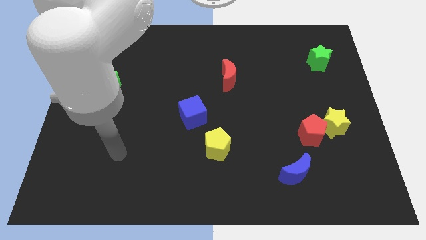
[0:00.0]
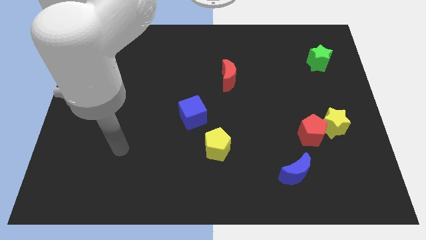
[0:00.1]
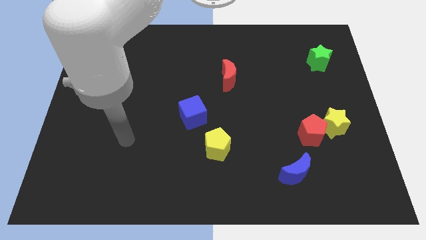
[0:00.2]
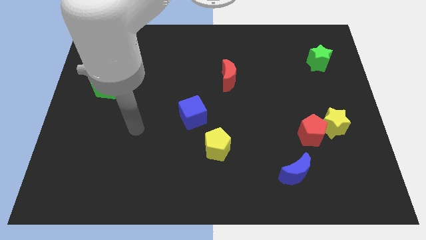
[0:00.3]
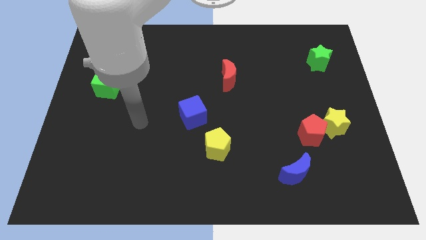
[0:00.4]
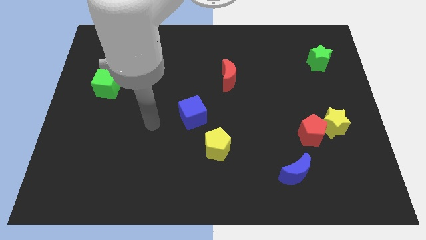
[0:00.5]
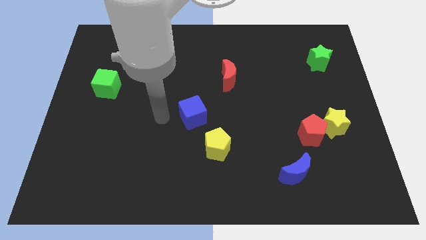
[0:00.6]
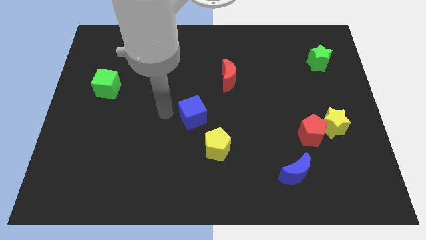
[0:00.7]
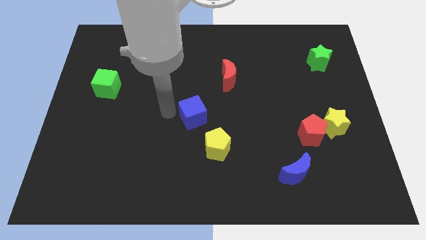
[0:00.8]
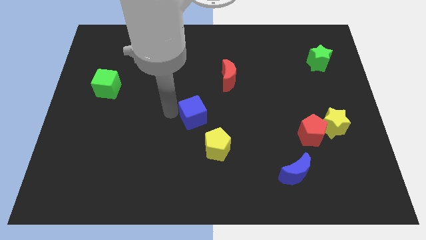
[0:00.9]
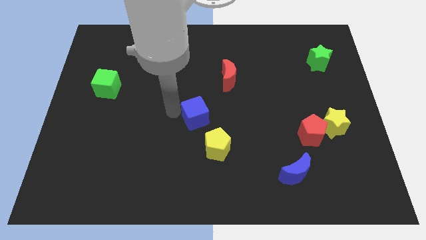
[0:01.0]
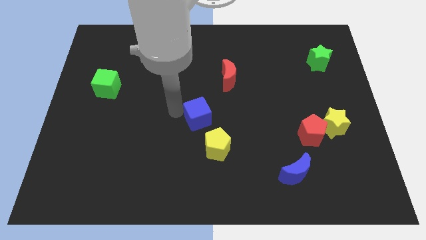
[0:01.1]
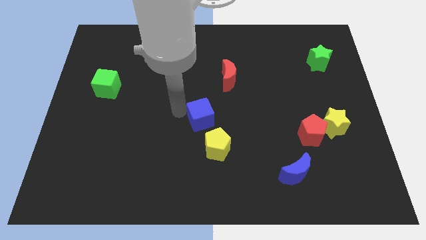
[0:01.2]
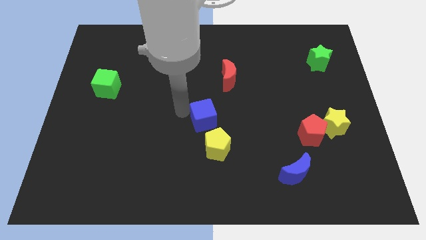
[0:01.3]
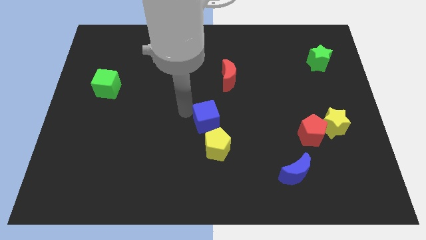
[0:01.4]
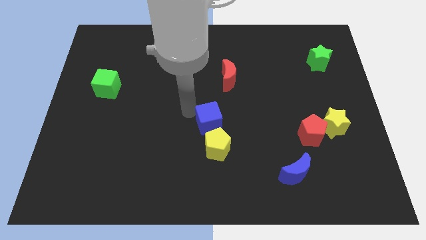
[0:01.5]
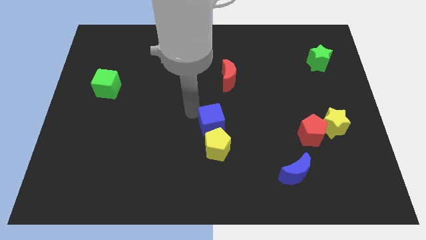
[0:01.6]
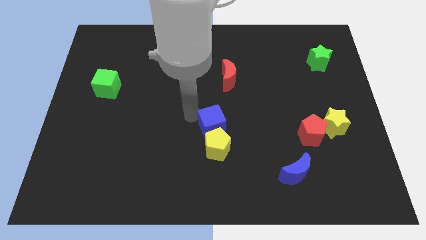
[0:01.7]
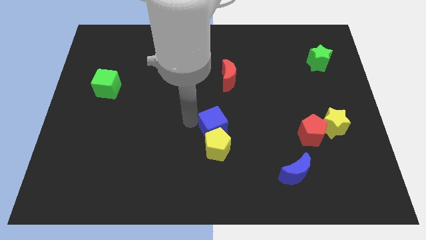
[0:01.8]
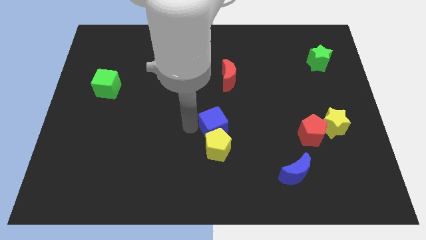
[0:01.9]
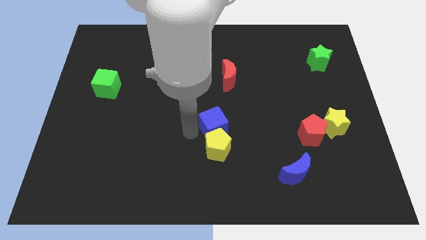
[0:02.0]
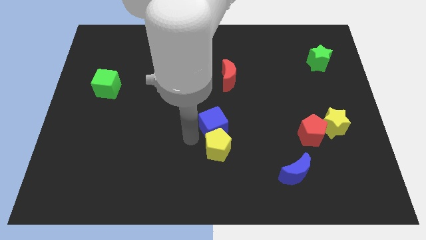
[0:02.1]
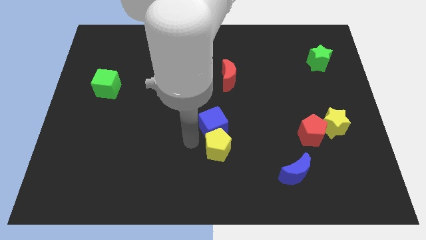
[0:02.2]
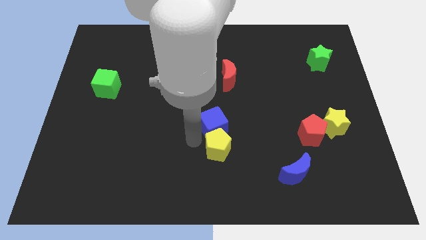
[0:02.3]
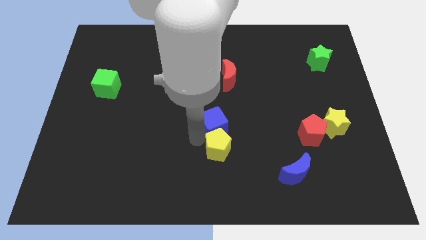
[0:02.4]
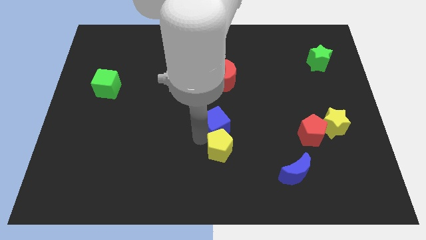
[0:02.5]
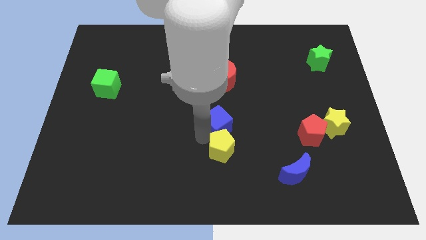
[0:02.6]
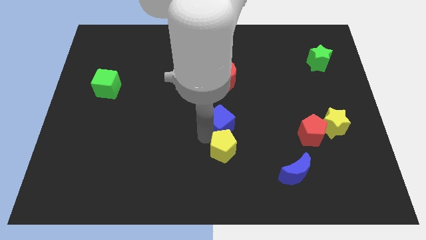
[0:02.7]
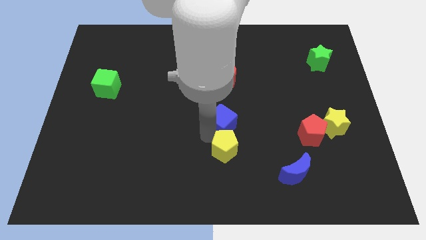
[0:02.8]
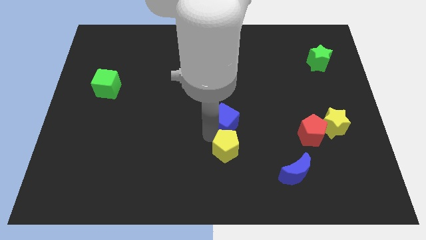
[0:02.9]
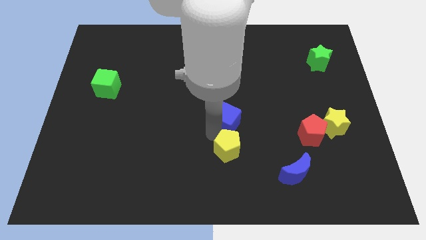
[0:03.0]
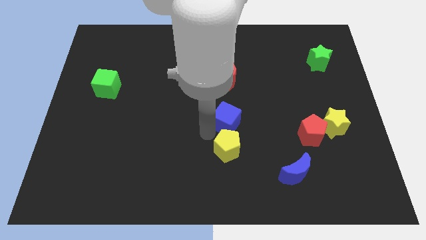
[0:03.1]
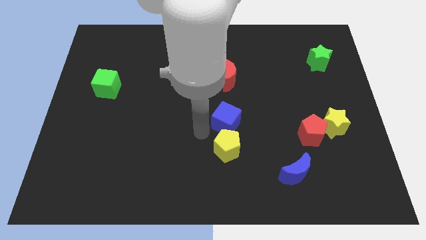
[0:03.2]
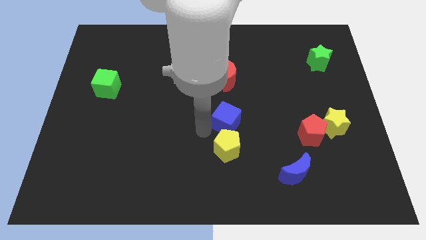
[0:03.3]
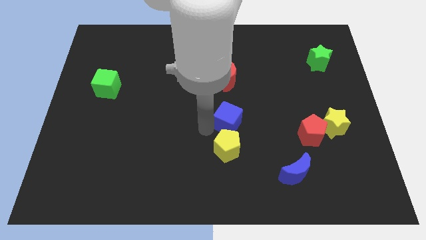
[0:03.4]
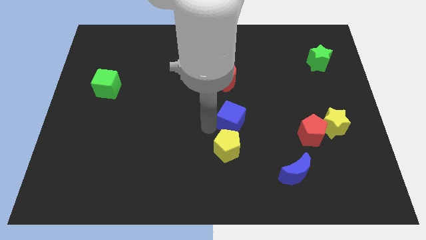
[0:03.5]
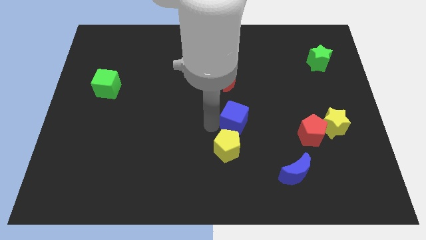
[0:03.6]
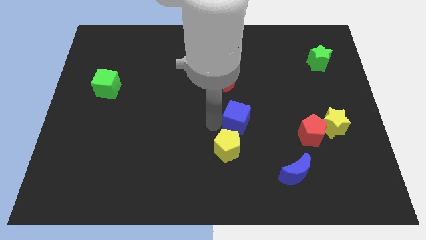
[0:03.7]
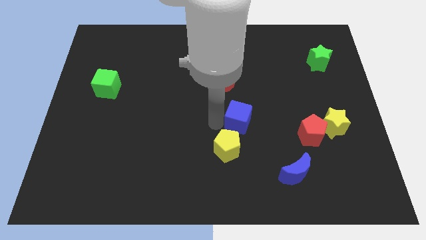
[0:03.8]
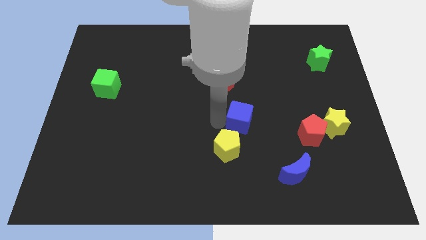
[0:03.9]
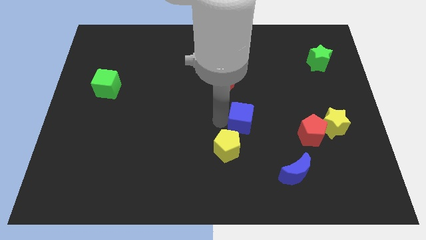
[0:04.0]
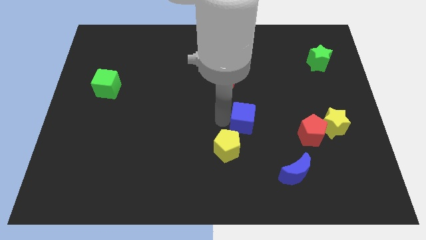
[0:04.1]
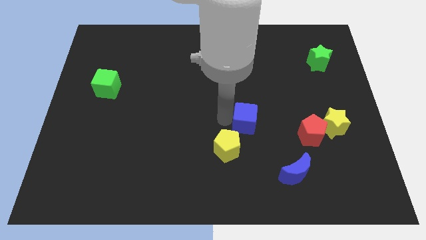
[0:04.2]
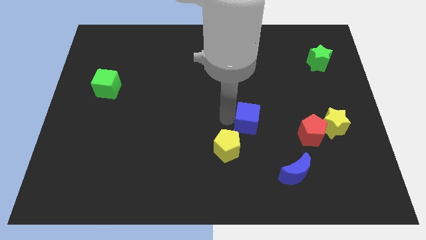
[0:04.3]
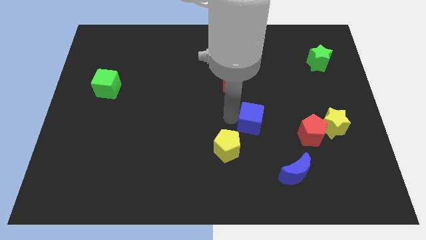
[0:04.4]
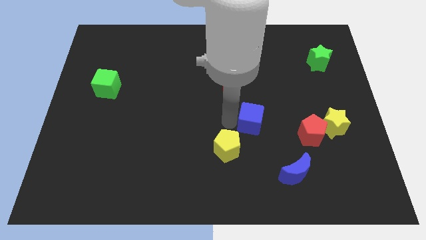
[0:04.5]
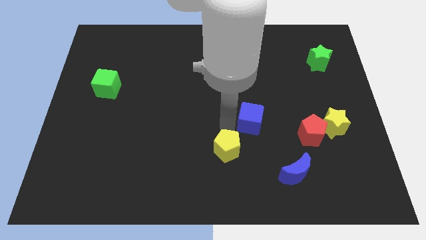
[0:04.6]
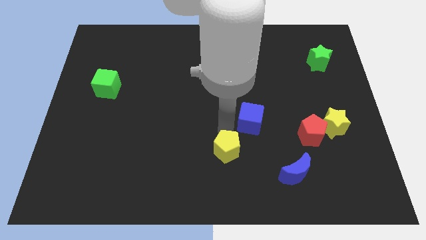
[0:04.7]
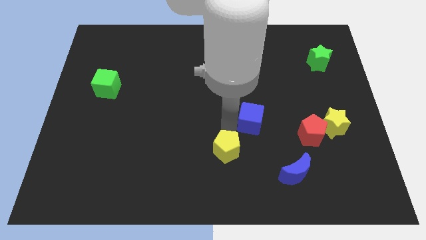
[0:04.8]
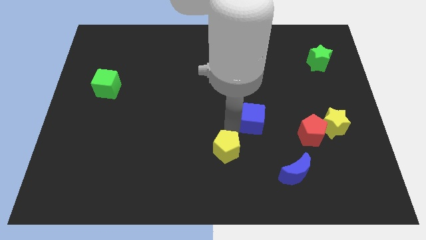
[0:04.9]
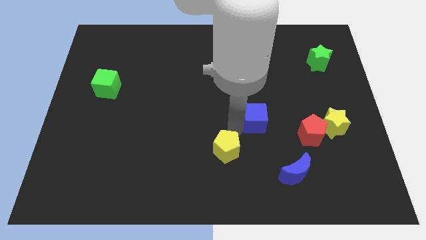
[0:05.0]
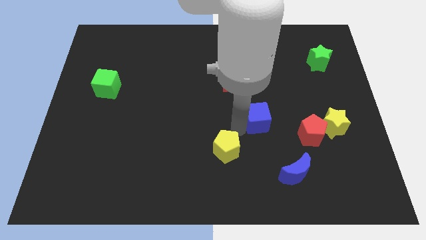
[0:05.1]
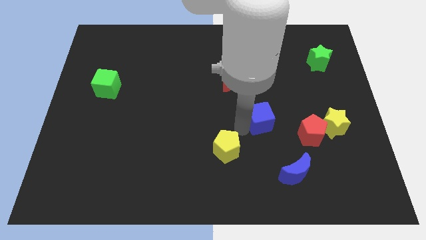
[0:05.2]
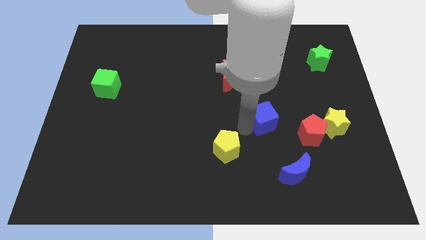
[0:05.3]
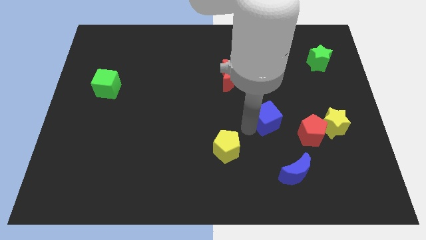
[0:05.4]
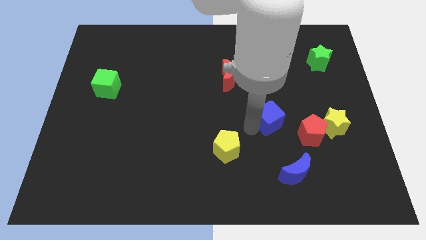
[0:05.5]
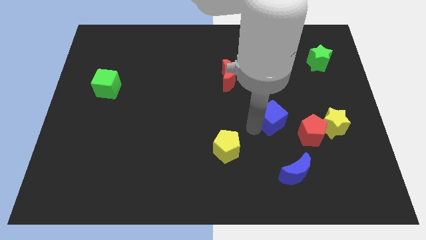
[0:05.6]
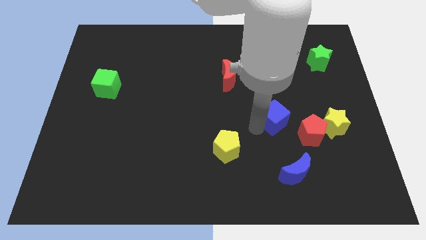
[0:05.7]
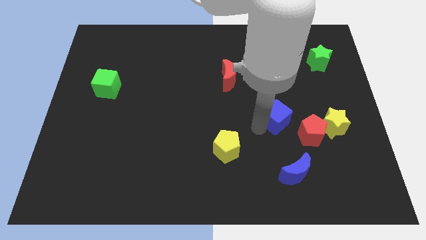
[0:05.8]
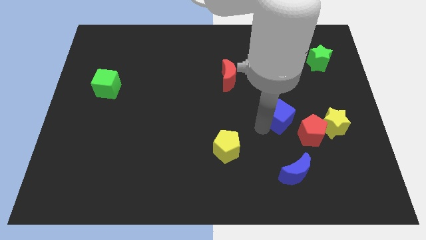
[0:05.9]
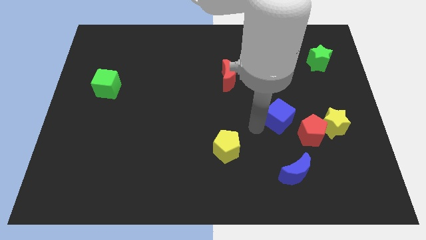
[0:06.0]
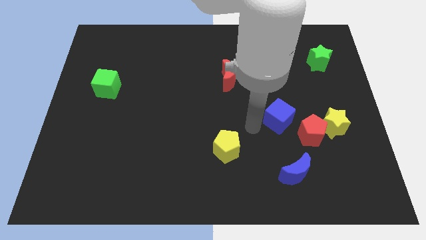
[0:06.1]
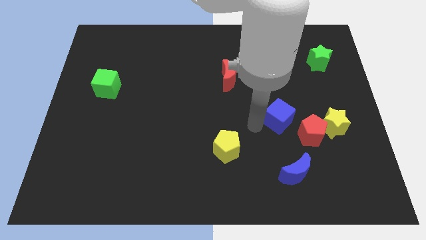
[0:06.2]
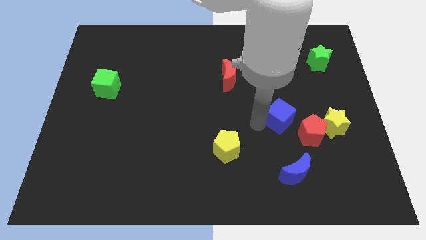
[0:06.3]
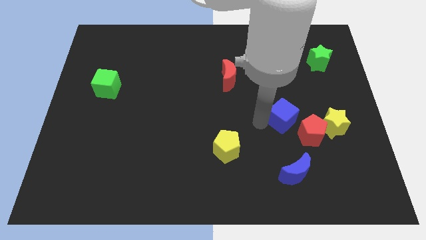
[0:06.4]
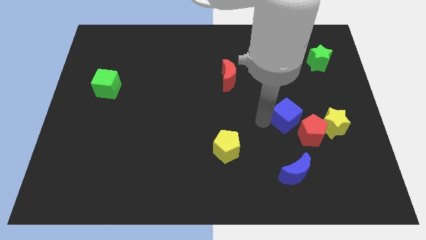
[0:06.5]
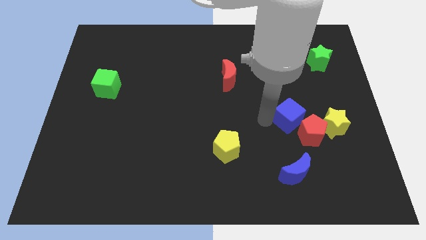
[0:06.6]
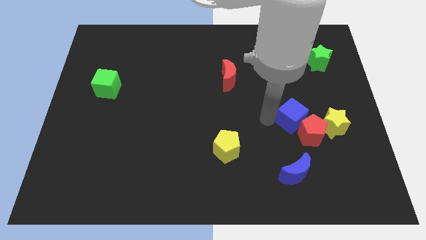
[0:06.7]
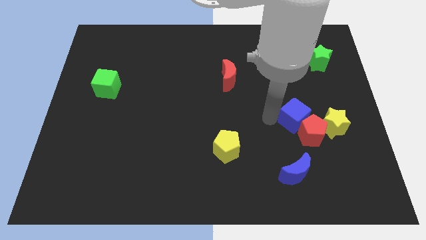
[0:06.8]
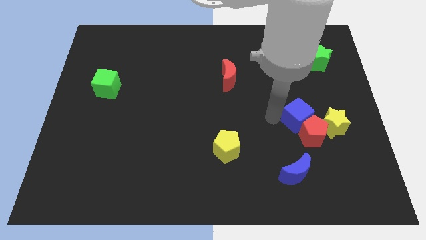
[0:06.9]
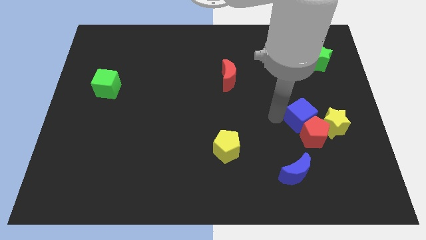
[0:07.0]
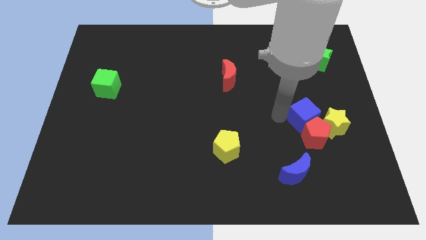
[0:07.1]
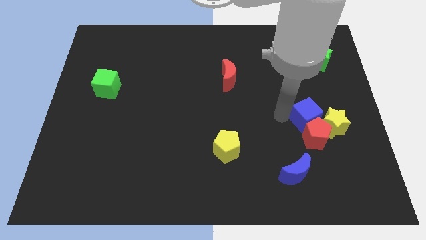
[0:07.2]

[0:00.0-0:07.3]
put the blue cube towards the yellow star

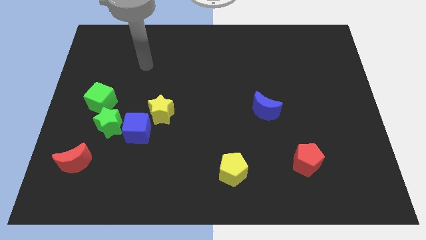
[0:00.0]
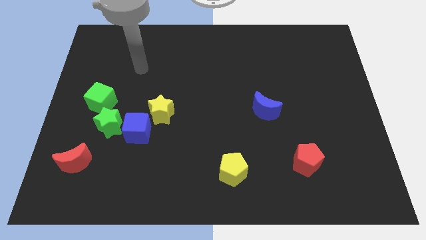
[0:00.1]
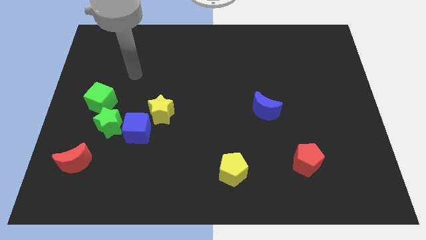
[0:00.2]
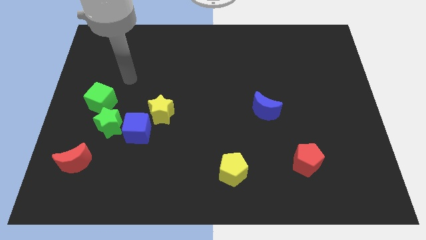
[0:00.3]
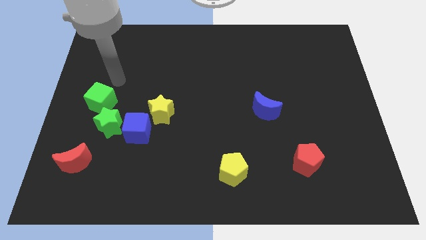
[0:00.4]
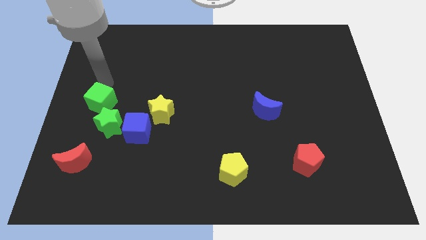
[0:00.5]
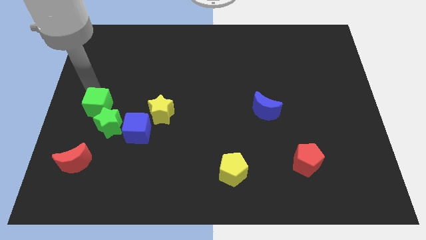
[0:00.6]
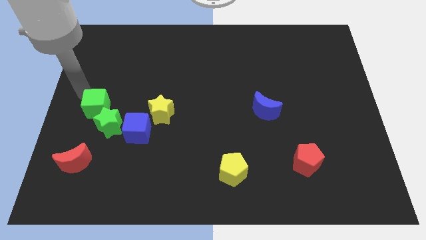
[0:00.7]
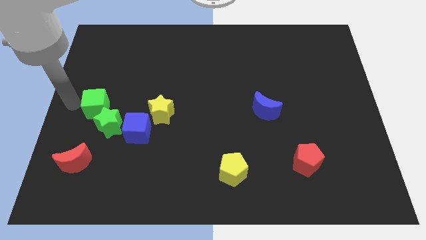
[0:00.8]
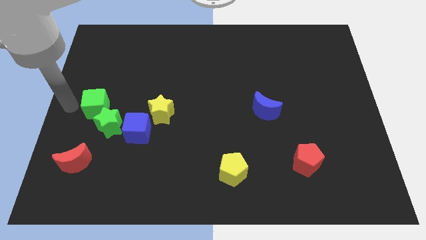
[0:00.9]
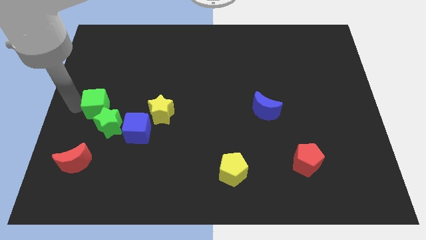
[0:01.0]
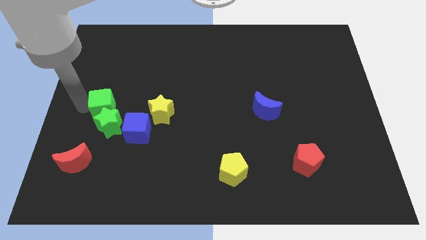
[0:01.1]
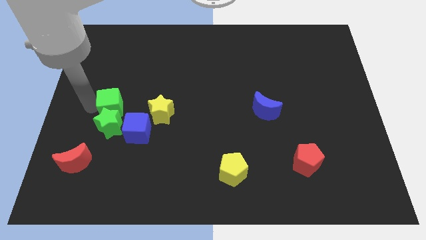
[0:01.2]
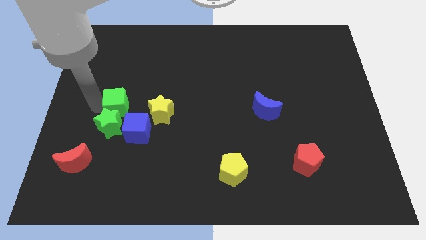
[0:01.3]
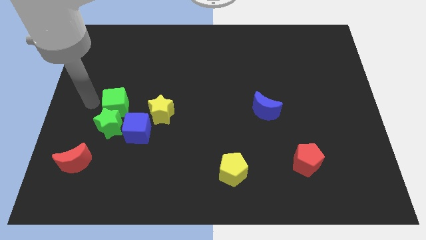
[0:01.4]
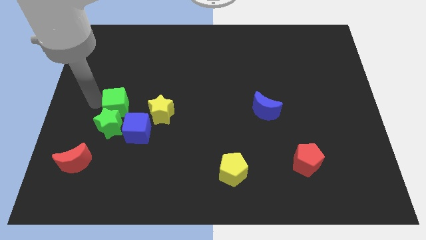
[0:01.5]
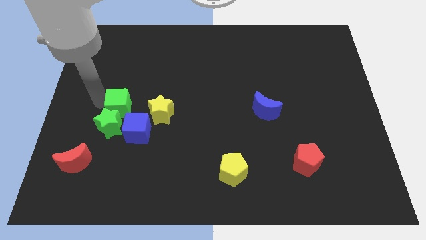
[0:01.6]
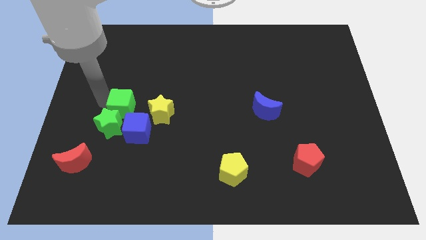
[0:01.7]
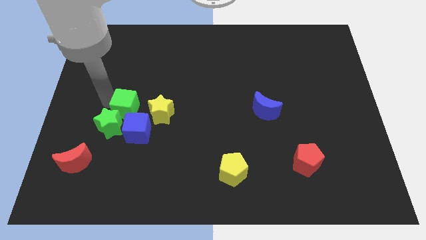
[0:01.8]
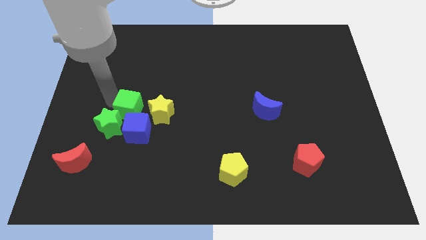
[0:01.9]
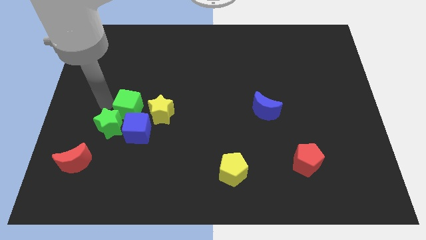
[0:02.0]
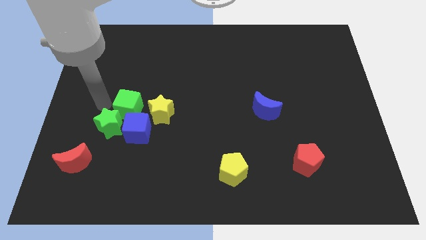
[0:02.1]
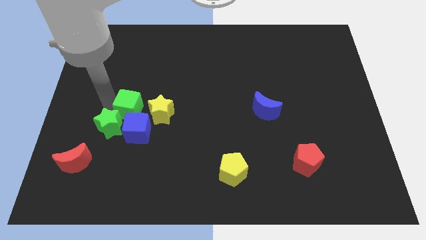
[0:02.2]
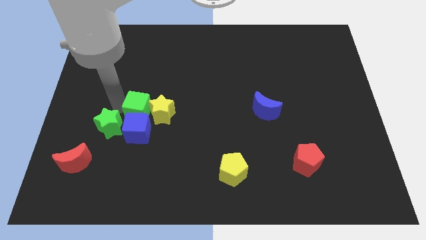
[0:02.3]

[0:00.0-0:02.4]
slide the green cube close to the yellow star
